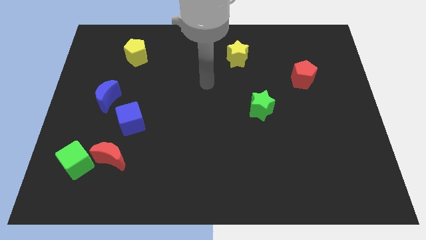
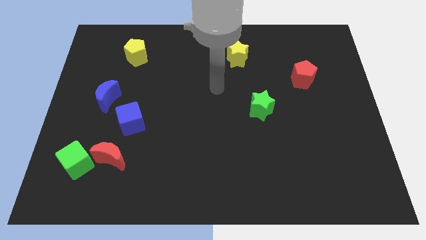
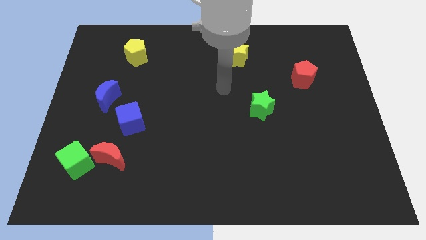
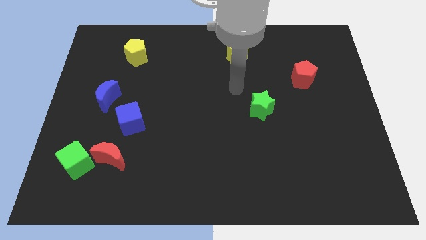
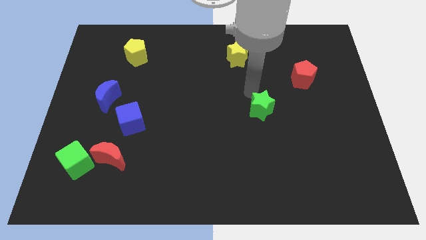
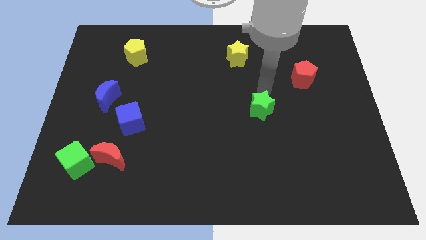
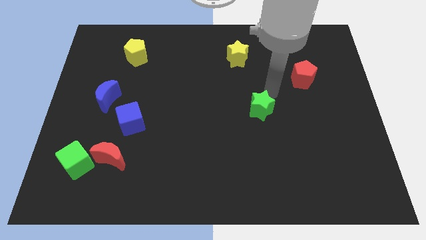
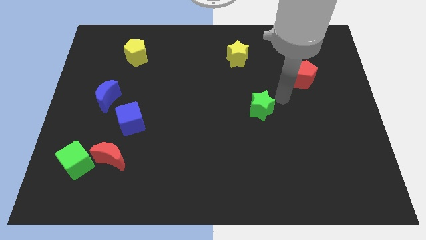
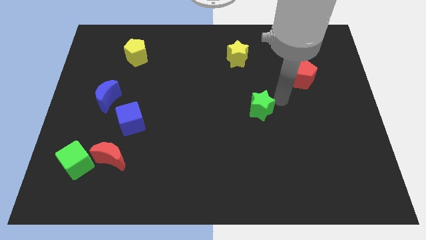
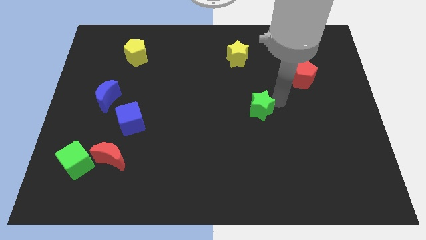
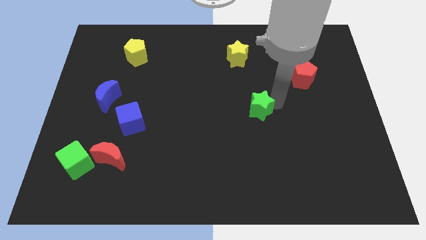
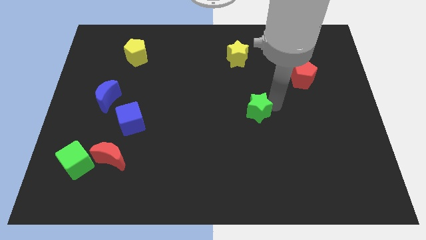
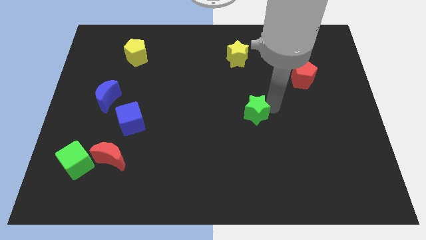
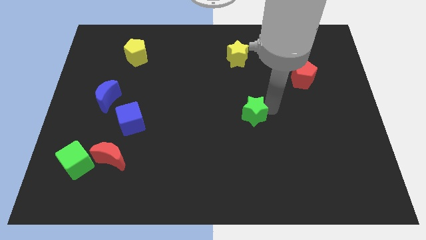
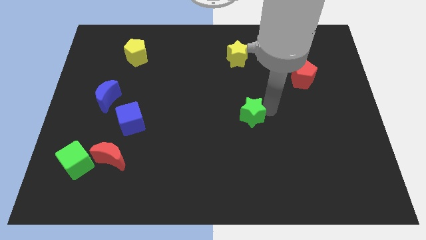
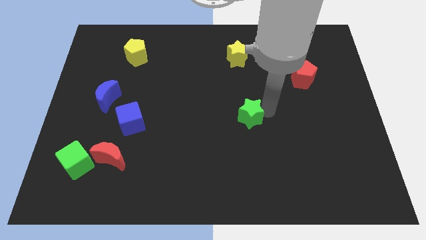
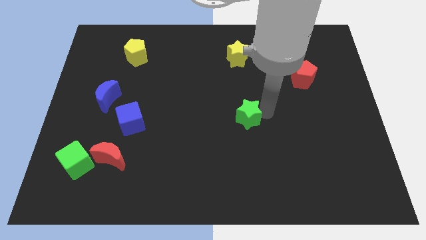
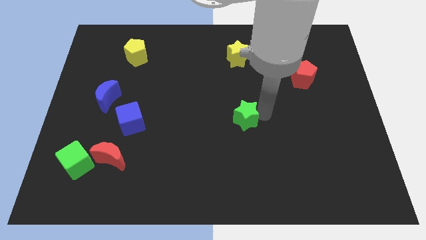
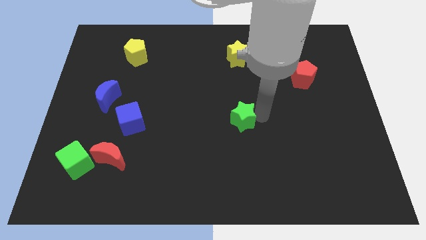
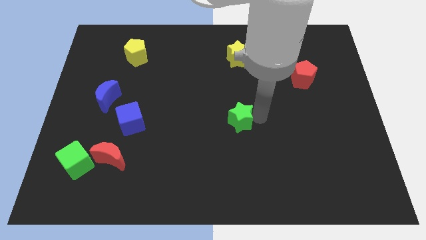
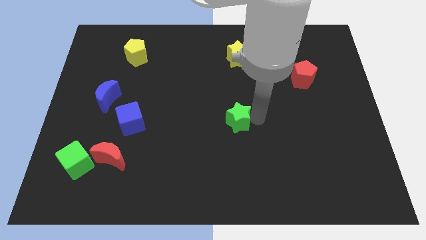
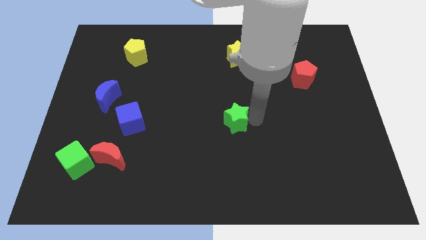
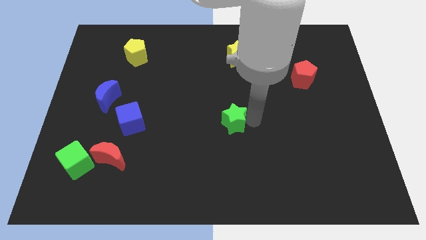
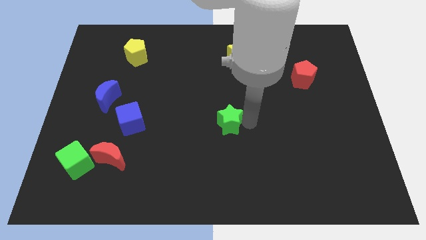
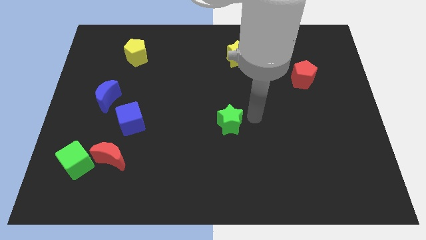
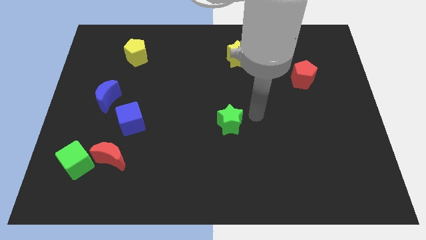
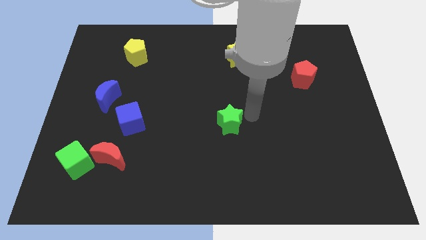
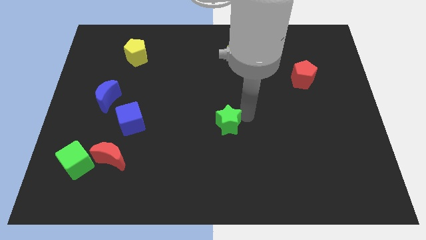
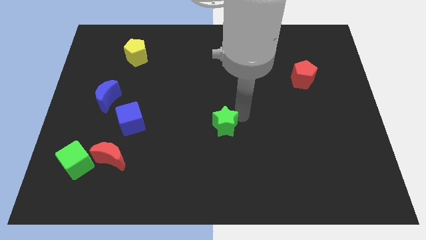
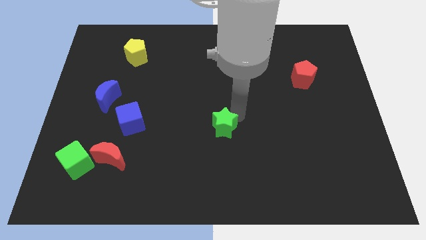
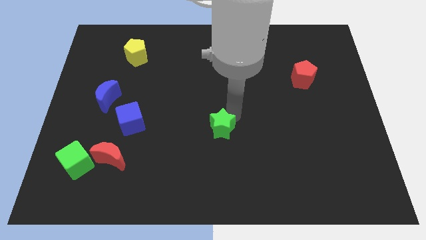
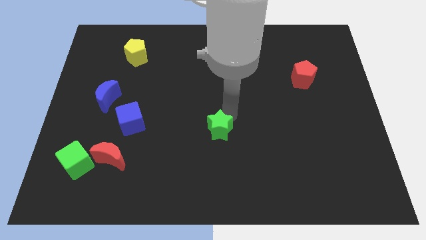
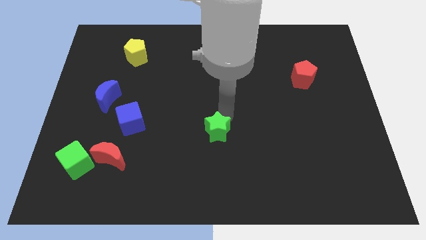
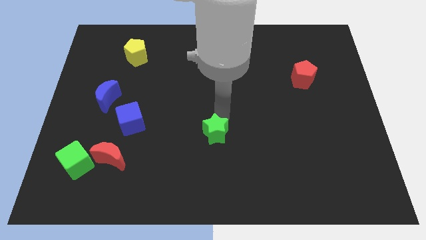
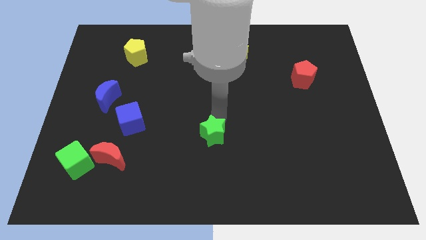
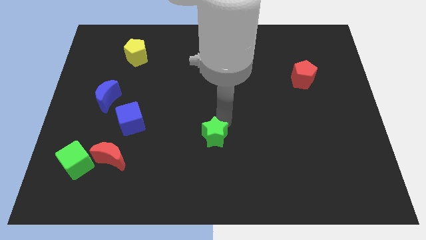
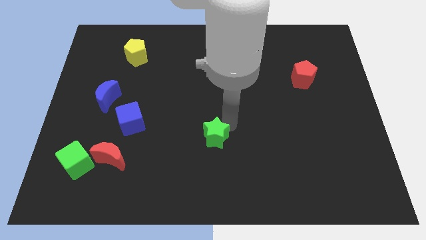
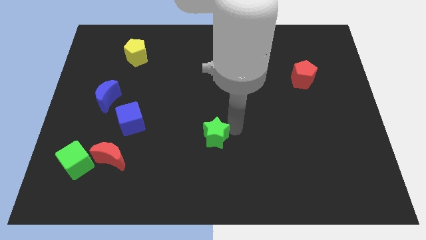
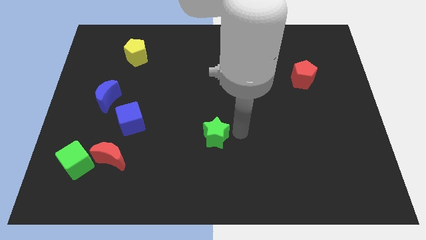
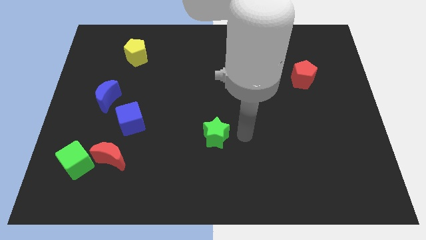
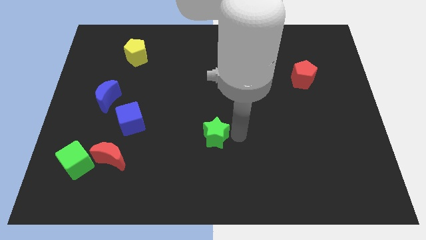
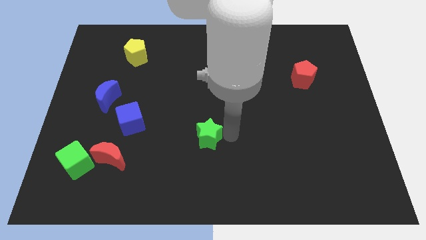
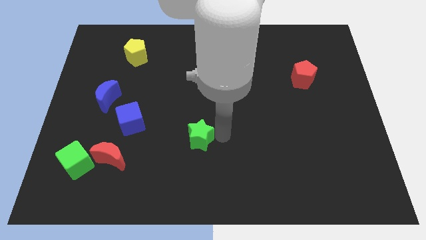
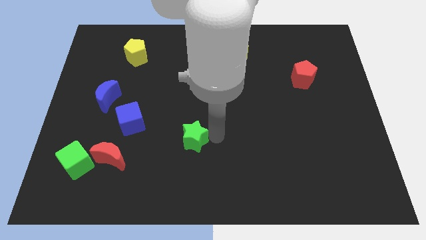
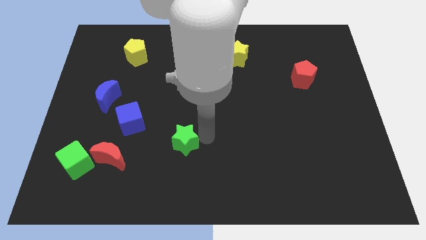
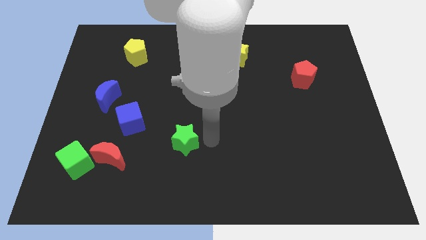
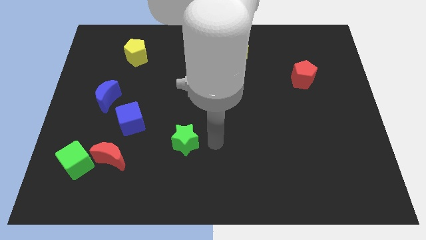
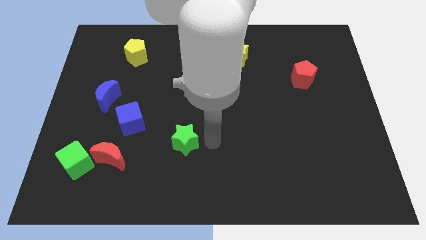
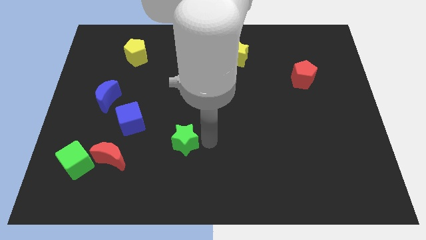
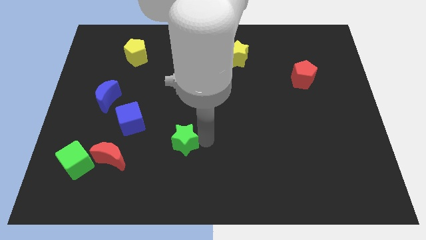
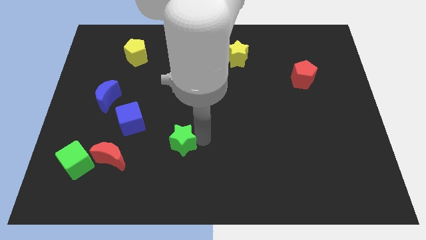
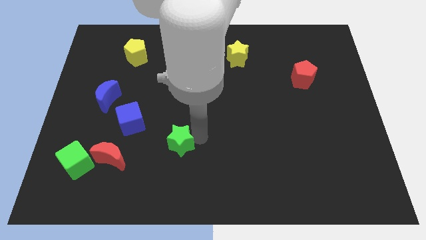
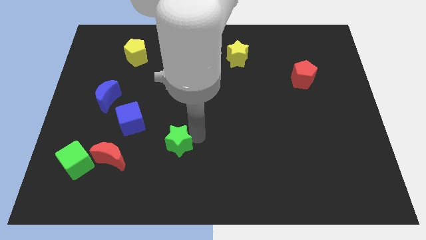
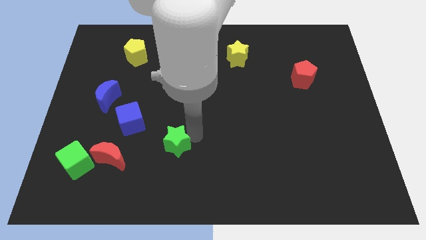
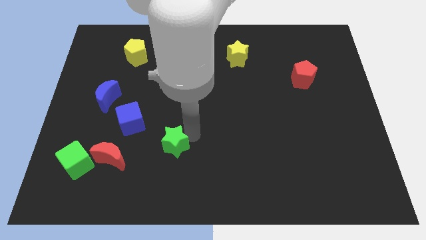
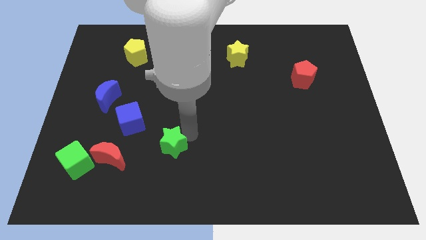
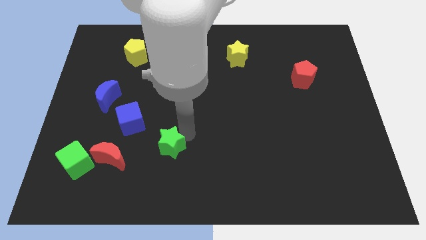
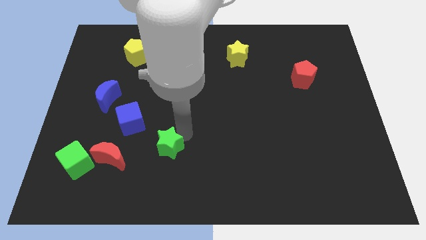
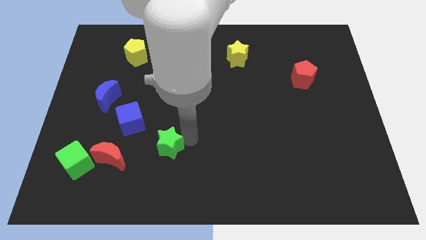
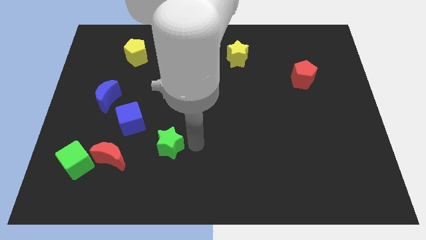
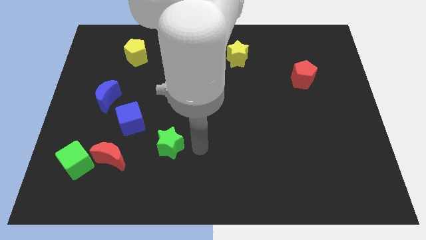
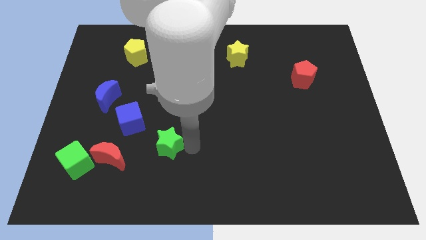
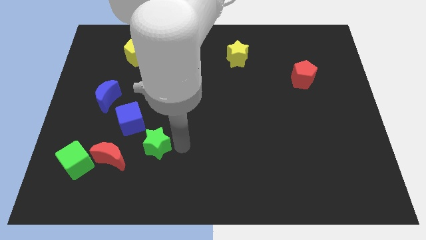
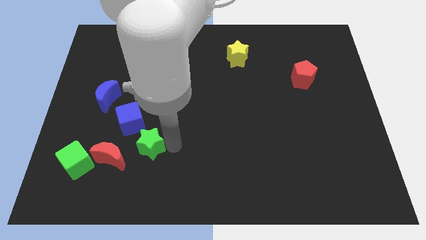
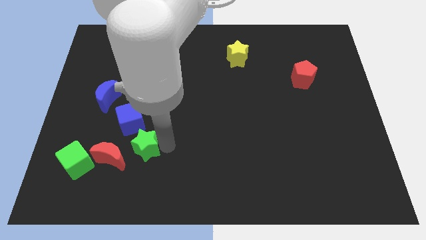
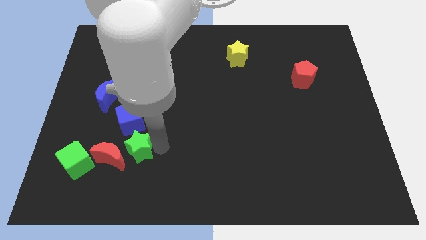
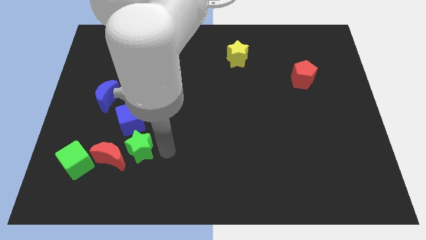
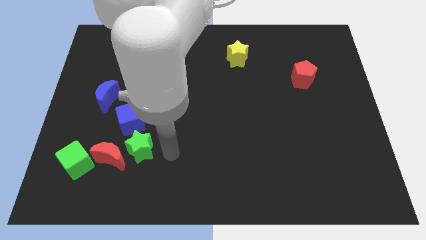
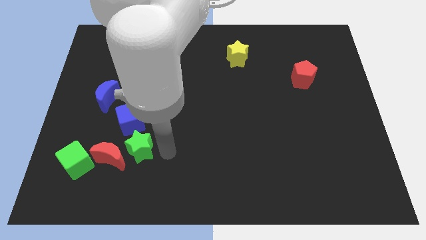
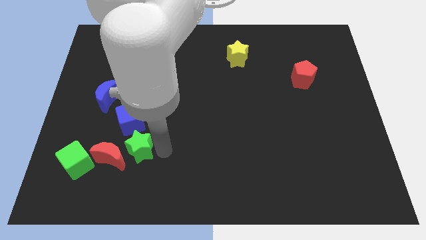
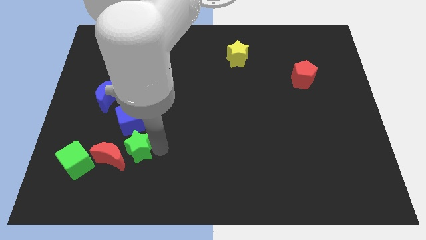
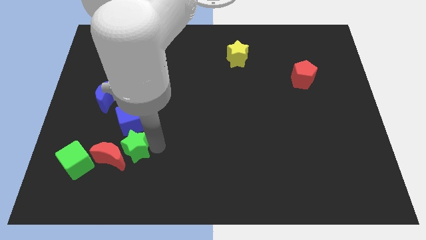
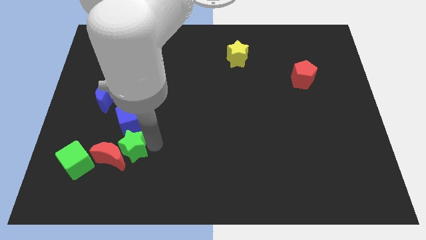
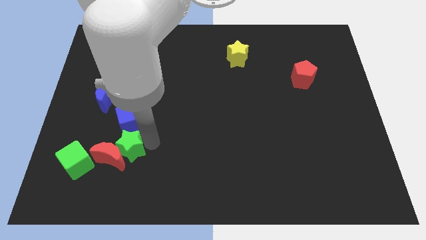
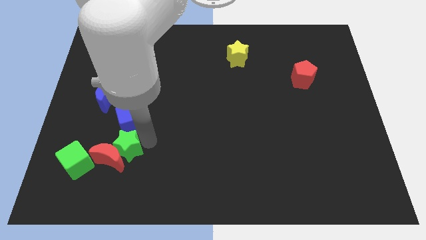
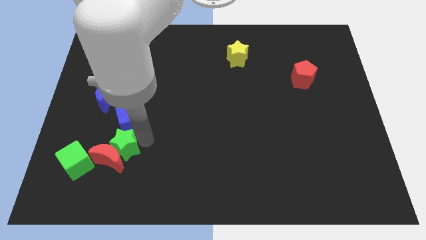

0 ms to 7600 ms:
slide the green star diagonally up and to the right of the green cube
